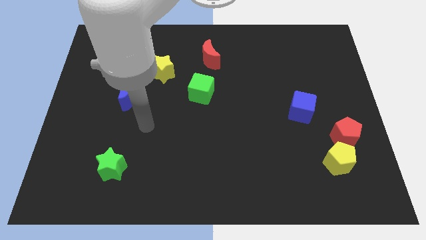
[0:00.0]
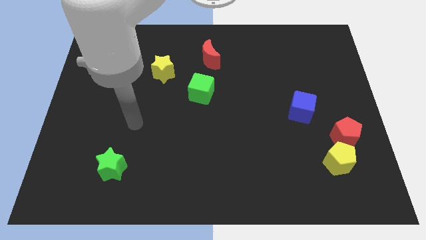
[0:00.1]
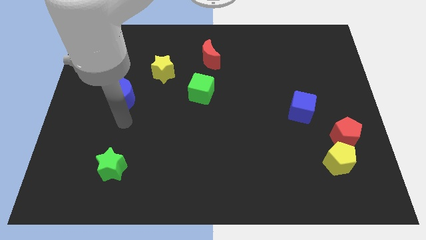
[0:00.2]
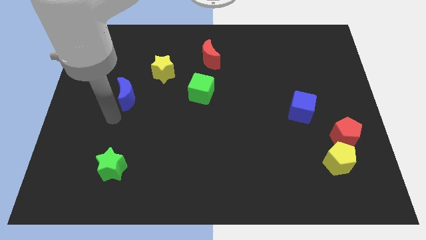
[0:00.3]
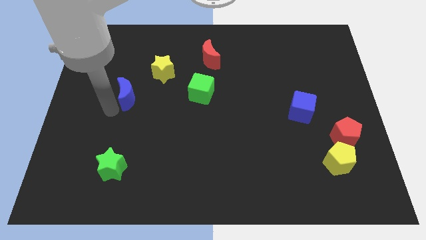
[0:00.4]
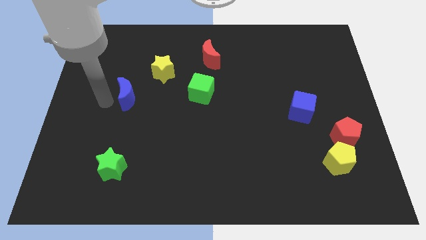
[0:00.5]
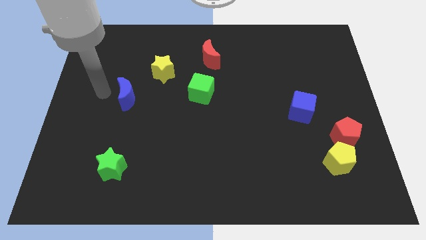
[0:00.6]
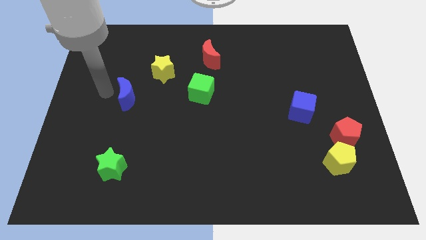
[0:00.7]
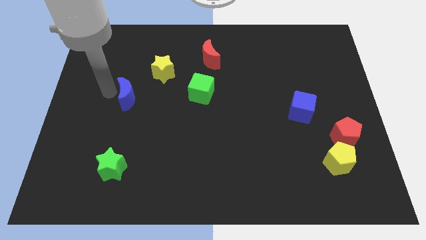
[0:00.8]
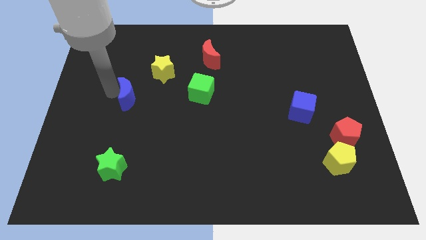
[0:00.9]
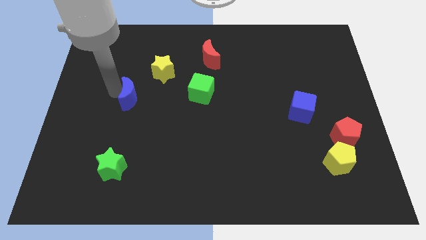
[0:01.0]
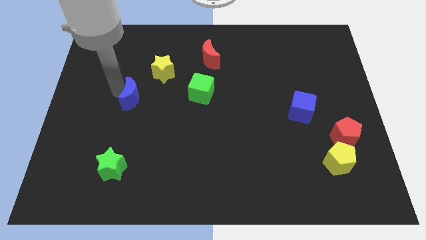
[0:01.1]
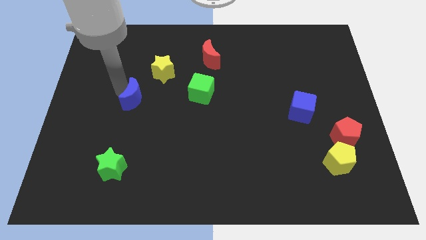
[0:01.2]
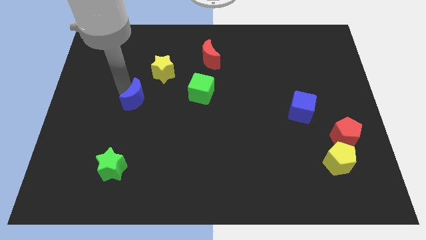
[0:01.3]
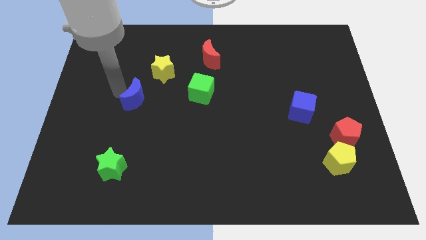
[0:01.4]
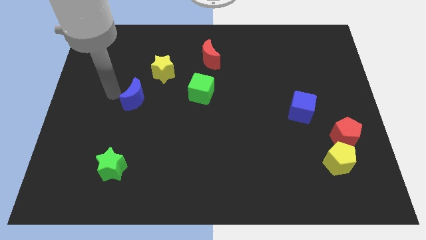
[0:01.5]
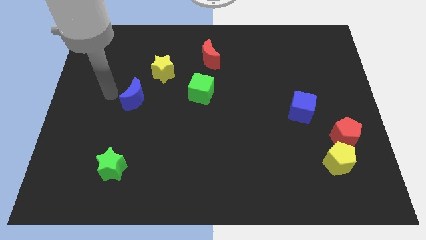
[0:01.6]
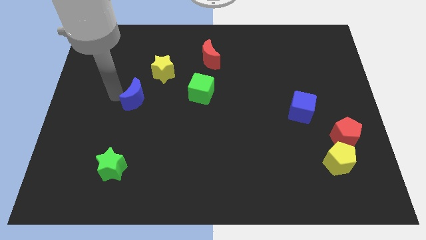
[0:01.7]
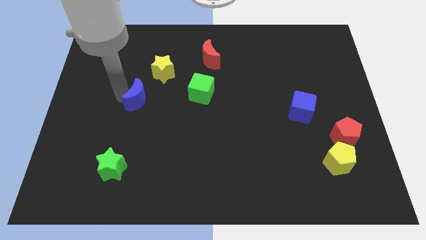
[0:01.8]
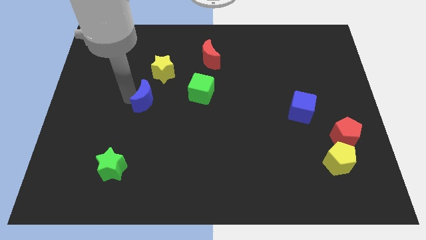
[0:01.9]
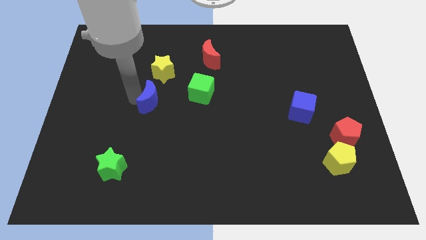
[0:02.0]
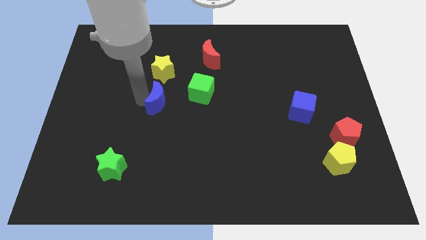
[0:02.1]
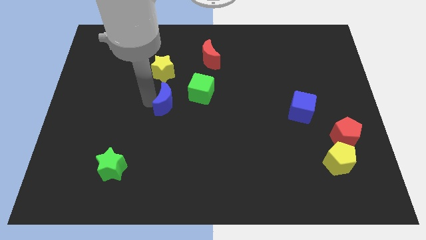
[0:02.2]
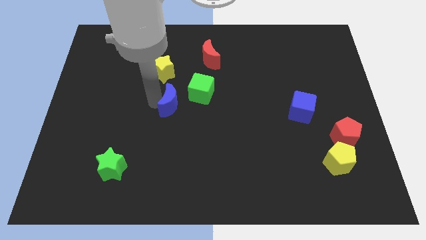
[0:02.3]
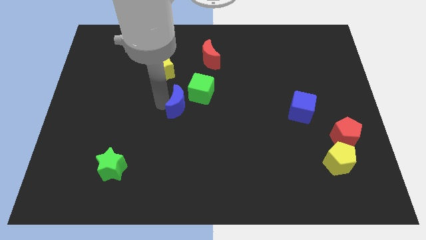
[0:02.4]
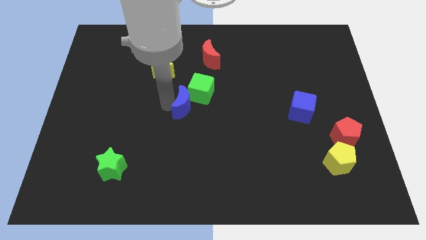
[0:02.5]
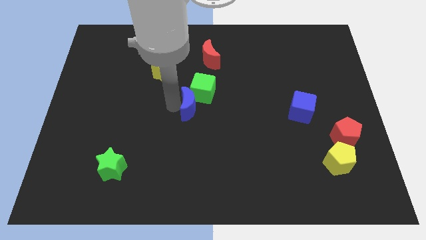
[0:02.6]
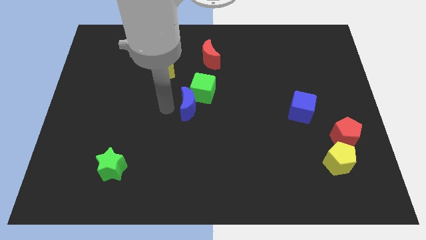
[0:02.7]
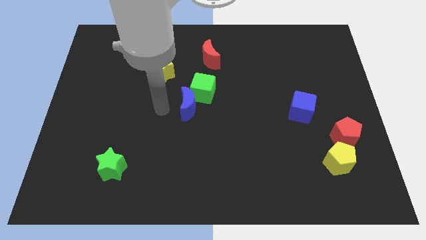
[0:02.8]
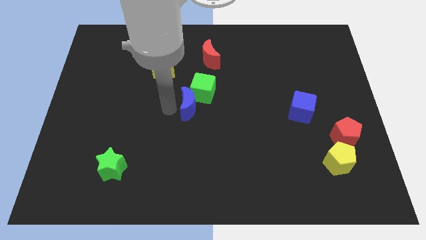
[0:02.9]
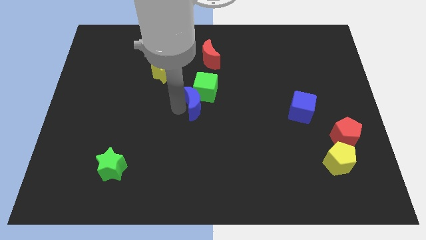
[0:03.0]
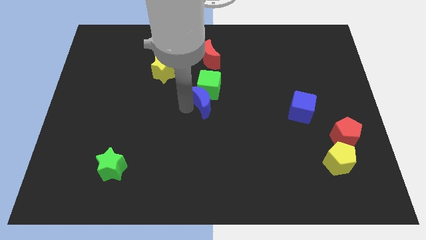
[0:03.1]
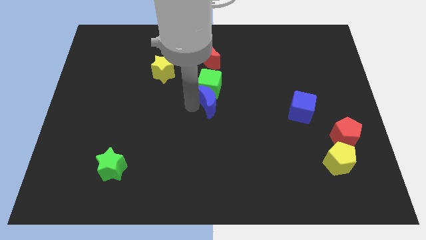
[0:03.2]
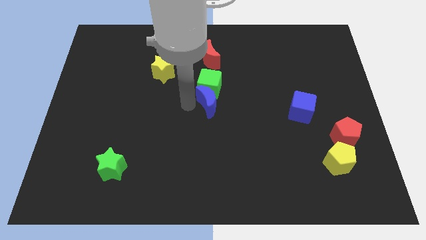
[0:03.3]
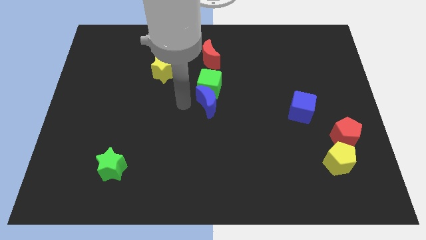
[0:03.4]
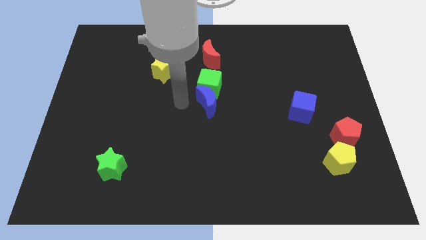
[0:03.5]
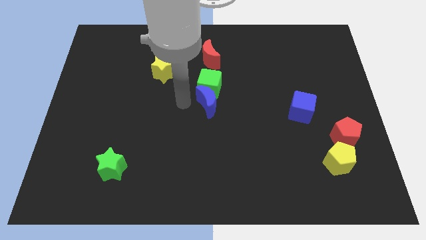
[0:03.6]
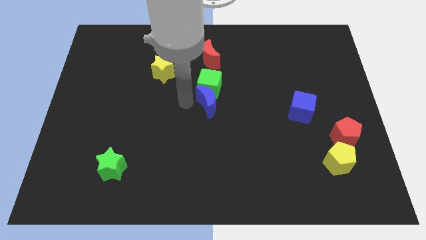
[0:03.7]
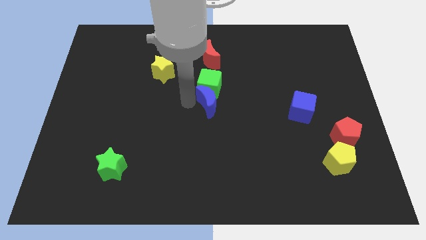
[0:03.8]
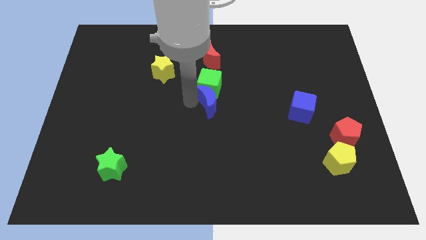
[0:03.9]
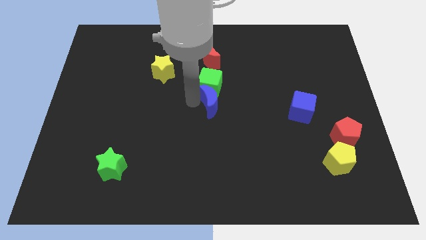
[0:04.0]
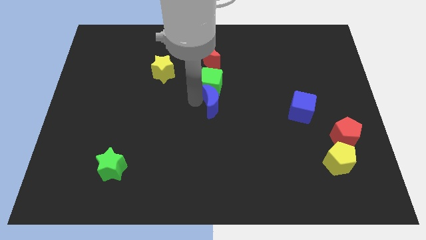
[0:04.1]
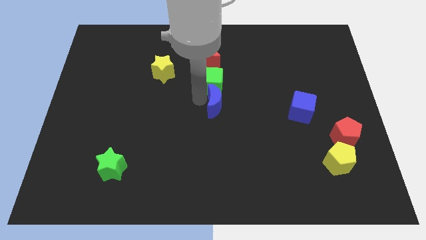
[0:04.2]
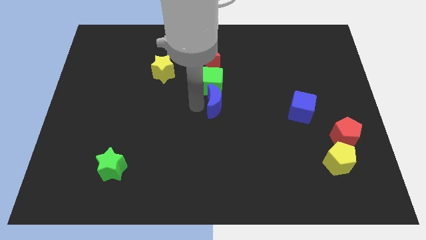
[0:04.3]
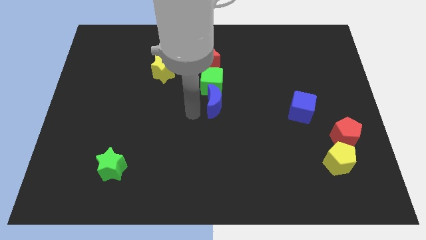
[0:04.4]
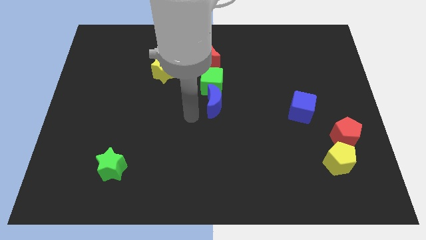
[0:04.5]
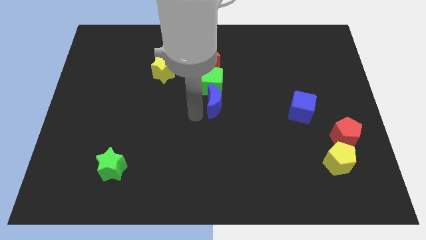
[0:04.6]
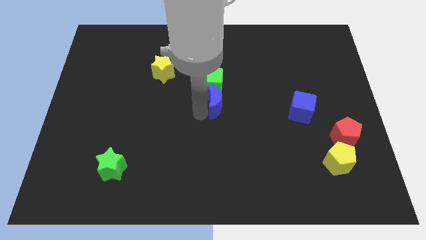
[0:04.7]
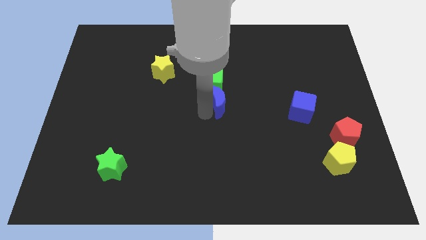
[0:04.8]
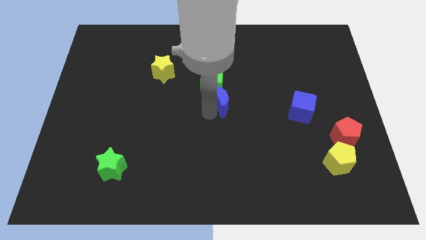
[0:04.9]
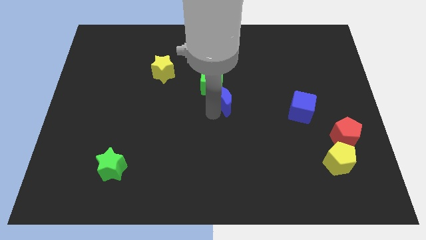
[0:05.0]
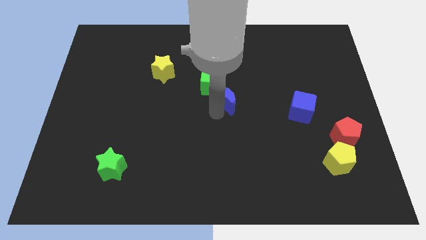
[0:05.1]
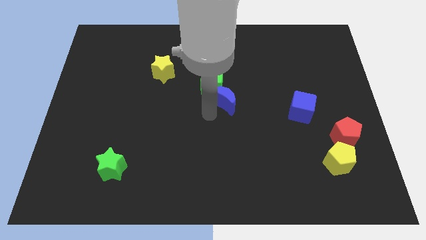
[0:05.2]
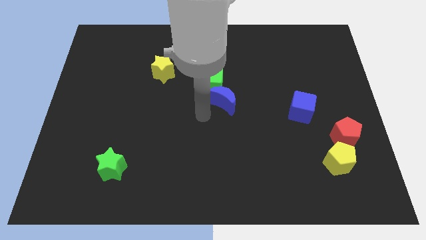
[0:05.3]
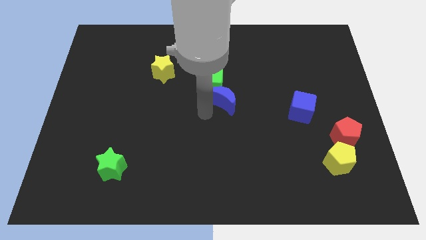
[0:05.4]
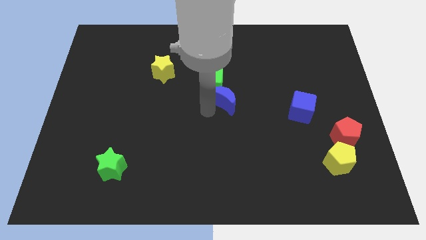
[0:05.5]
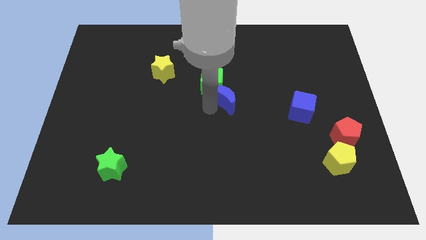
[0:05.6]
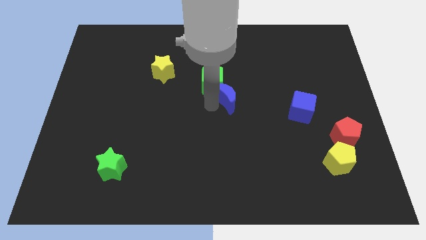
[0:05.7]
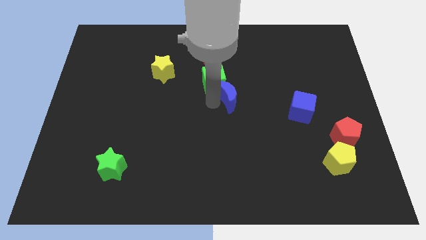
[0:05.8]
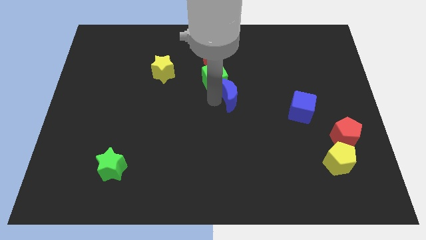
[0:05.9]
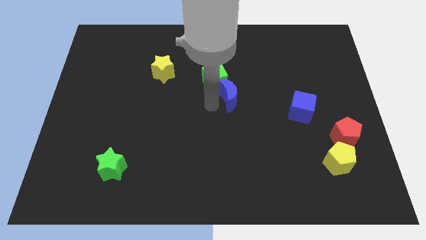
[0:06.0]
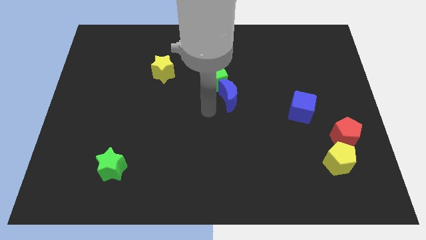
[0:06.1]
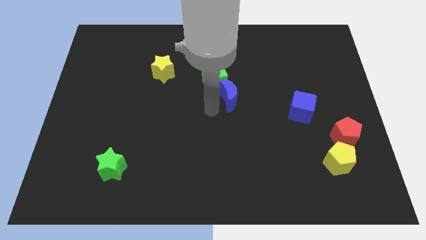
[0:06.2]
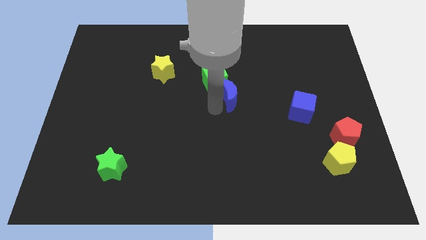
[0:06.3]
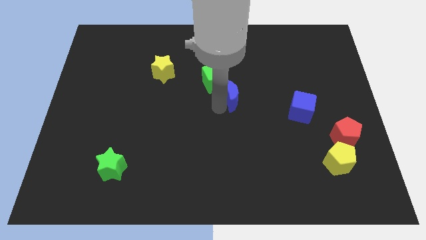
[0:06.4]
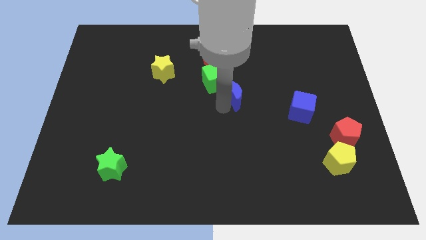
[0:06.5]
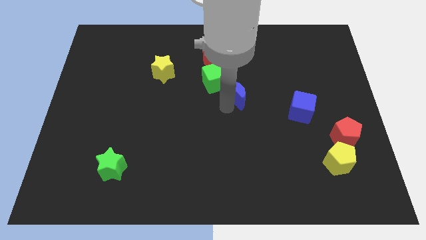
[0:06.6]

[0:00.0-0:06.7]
put the blue moon just right of the green cube

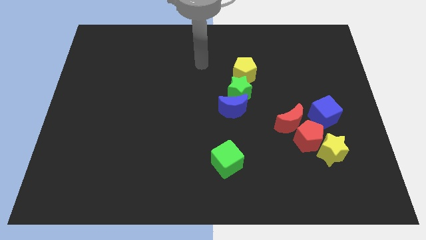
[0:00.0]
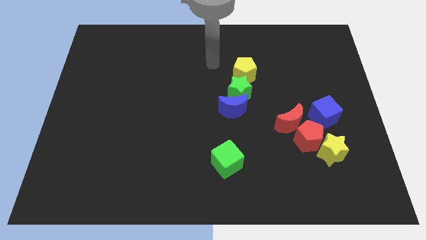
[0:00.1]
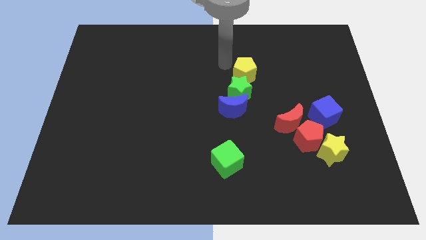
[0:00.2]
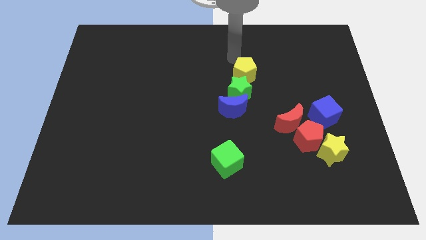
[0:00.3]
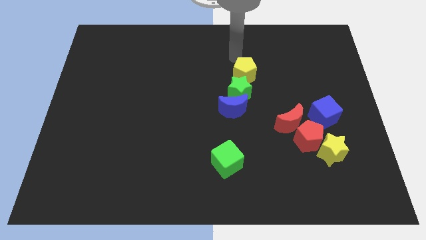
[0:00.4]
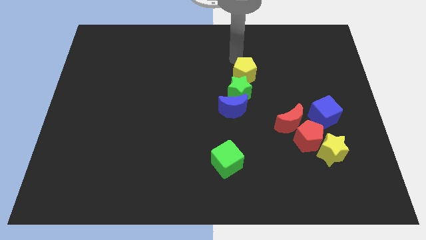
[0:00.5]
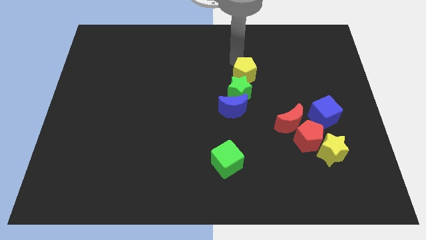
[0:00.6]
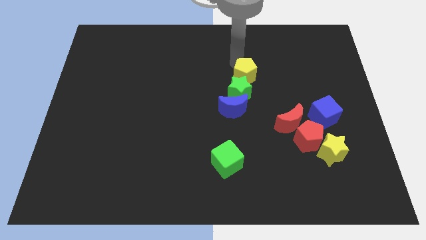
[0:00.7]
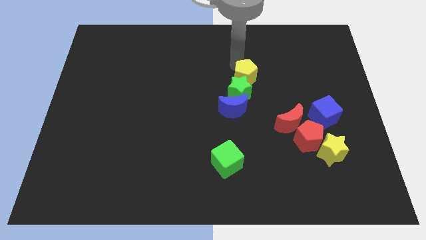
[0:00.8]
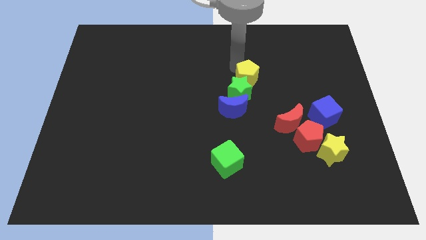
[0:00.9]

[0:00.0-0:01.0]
move the yellow pentagon diagonally up and to the right of the blue moon
